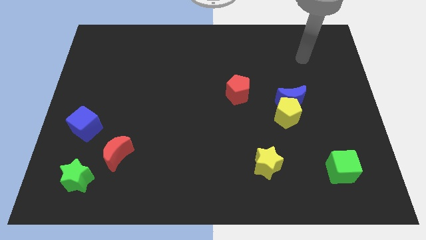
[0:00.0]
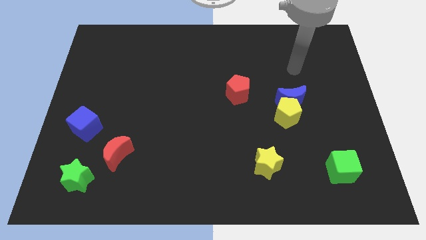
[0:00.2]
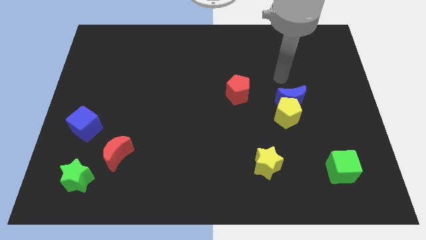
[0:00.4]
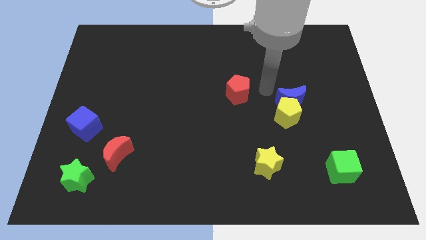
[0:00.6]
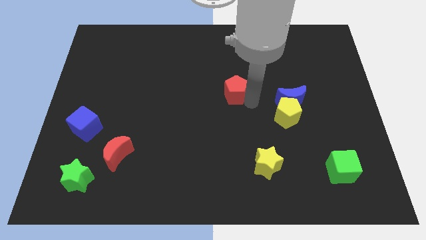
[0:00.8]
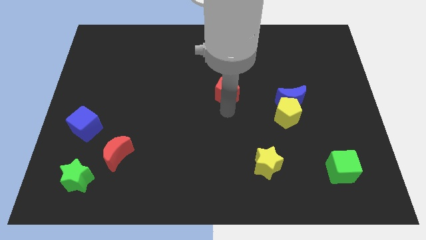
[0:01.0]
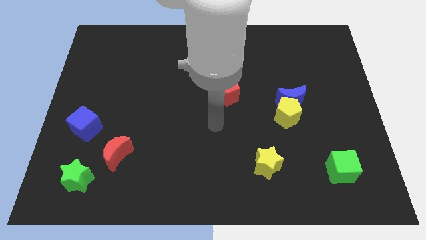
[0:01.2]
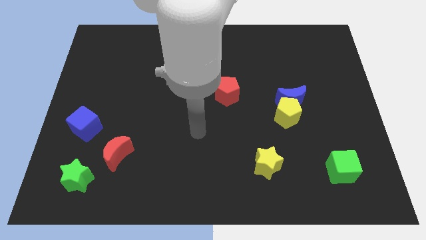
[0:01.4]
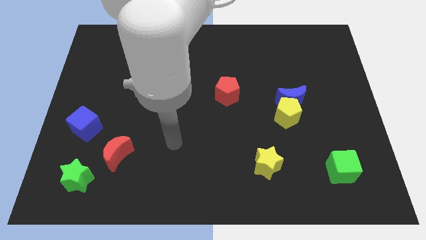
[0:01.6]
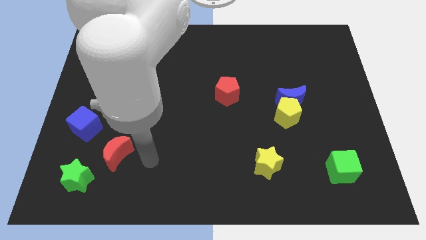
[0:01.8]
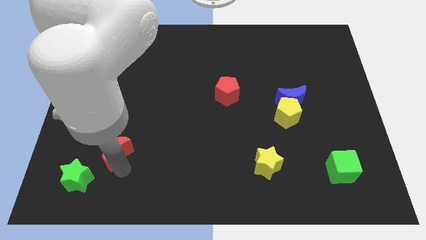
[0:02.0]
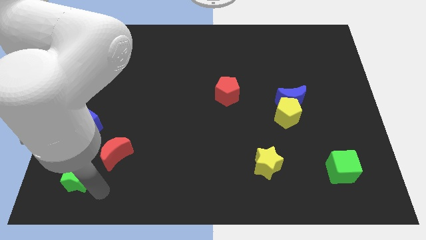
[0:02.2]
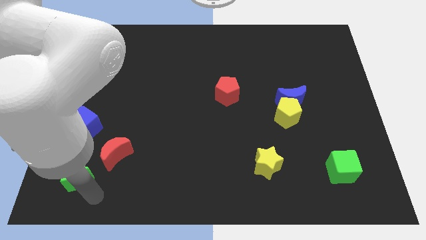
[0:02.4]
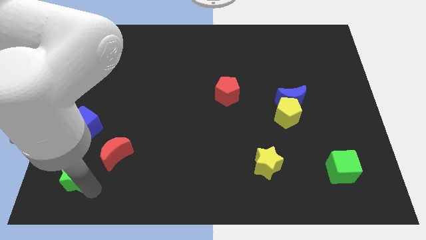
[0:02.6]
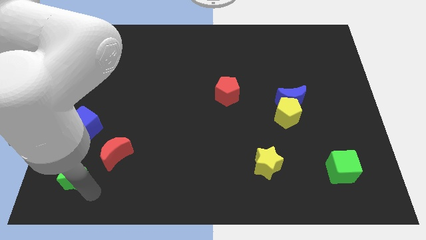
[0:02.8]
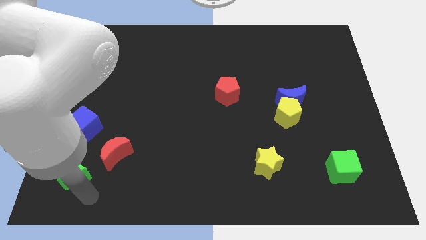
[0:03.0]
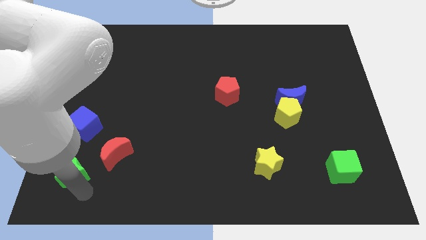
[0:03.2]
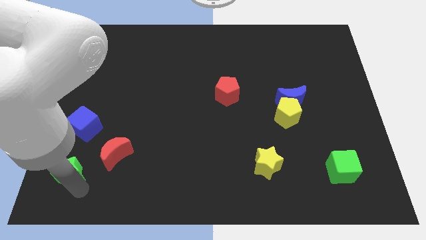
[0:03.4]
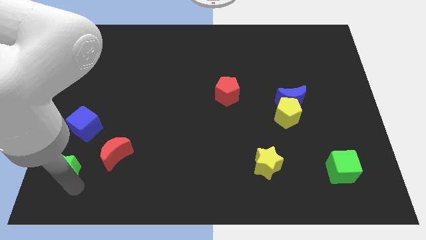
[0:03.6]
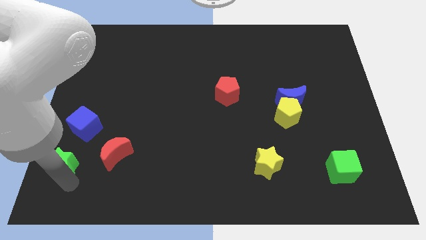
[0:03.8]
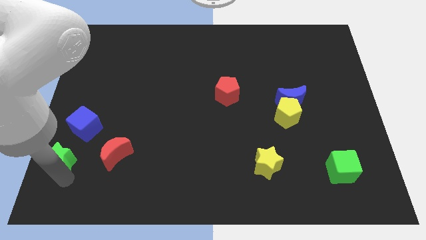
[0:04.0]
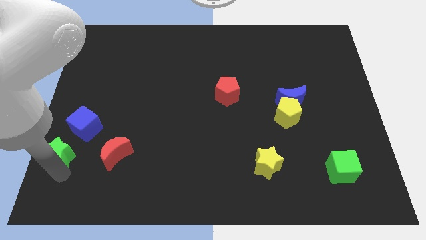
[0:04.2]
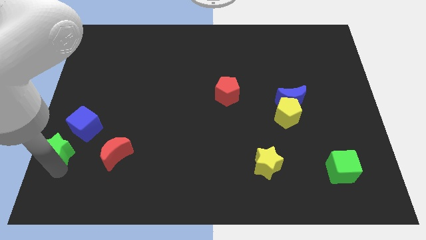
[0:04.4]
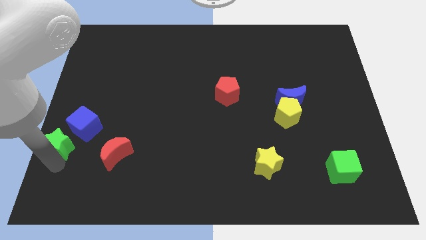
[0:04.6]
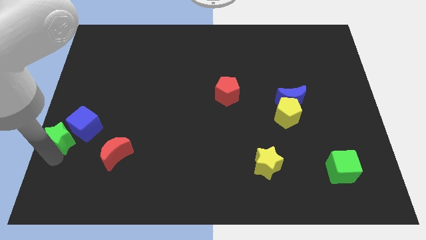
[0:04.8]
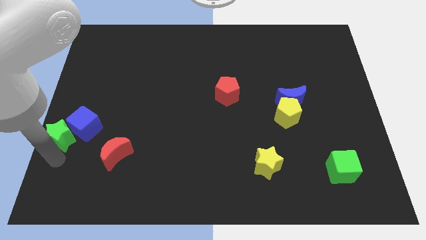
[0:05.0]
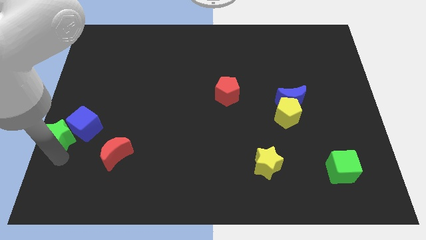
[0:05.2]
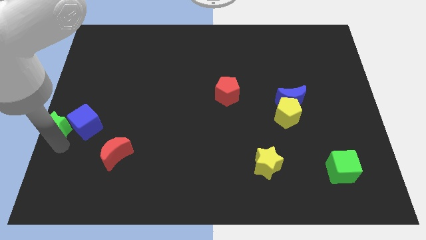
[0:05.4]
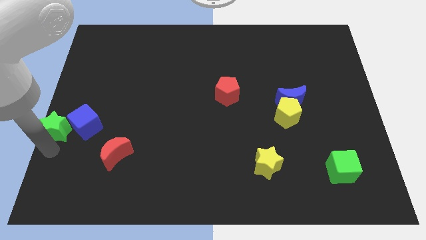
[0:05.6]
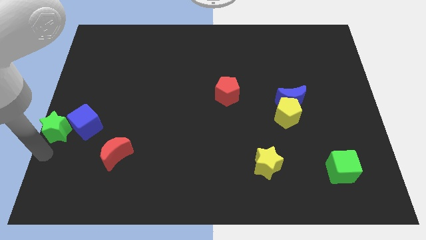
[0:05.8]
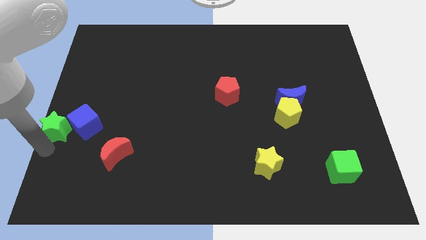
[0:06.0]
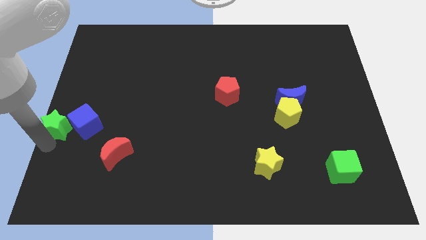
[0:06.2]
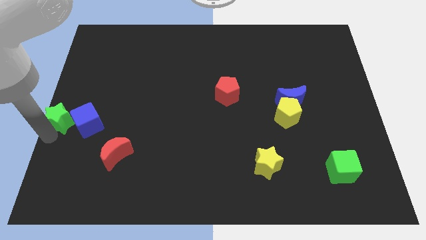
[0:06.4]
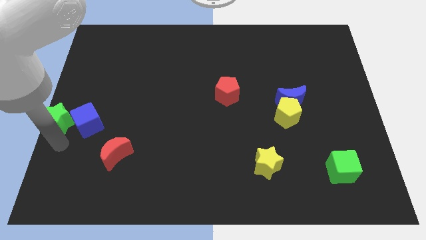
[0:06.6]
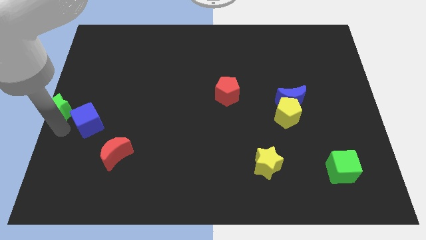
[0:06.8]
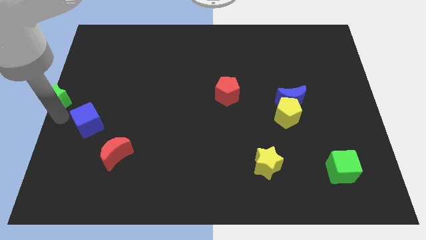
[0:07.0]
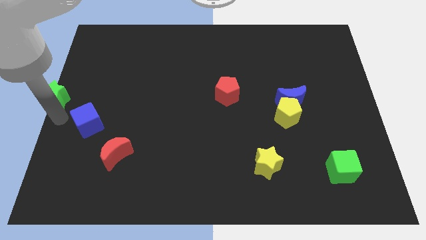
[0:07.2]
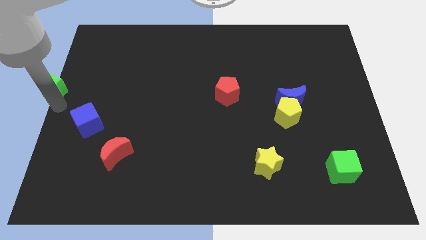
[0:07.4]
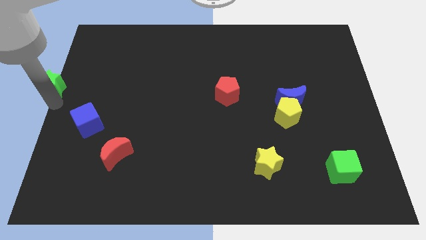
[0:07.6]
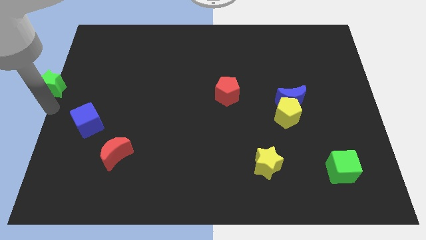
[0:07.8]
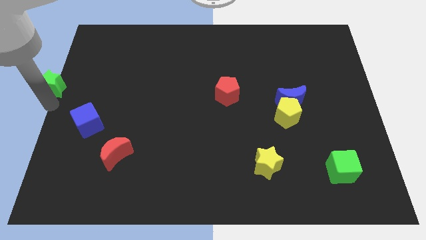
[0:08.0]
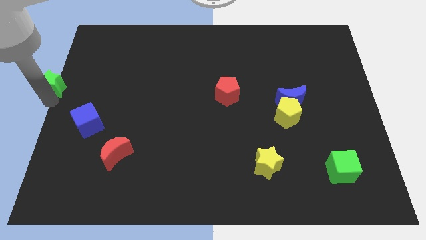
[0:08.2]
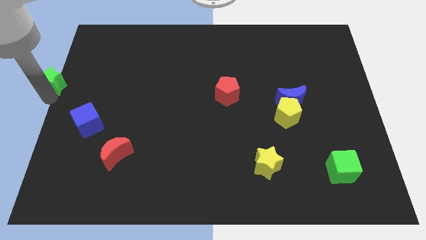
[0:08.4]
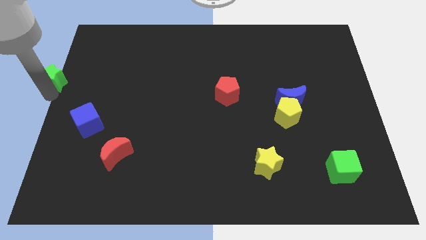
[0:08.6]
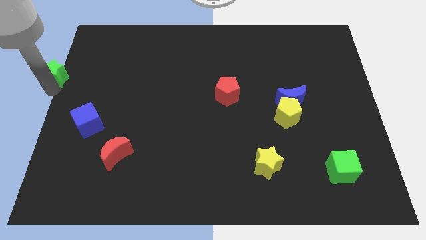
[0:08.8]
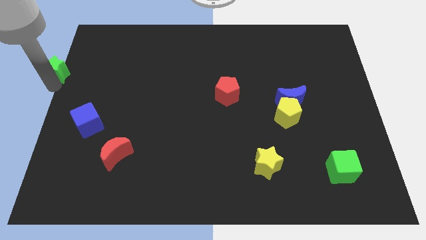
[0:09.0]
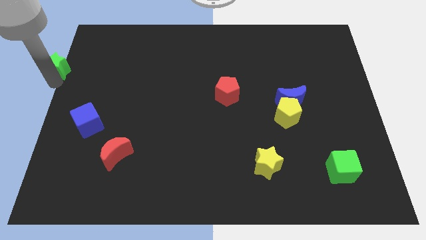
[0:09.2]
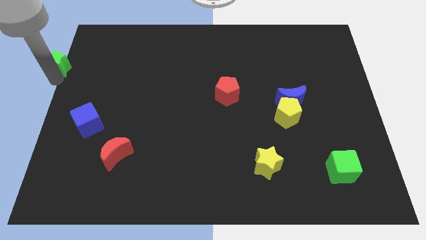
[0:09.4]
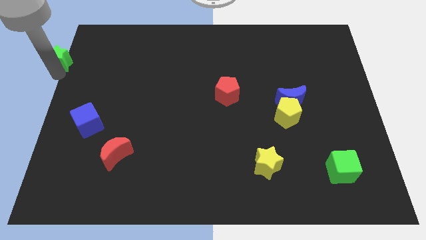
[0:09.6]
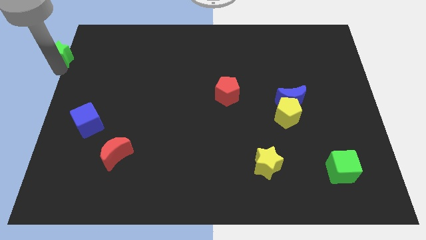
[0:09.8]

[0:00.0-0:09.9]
slide the green star to the top left

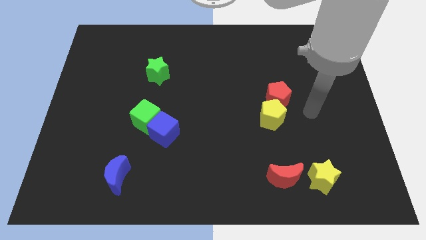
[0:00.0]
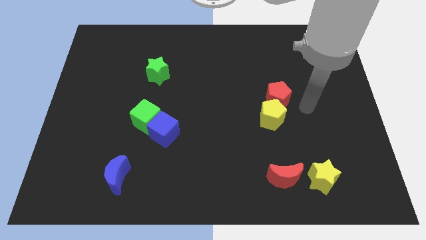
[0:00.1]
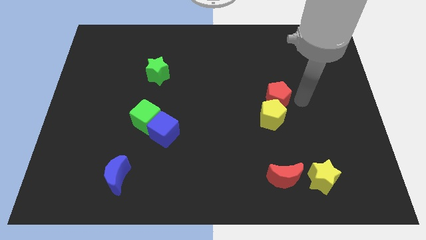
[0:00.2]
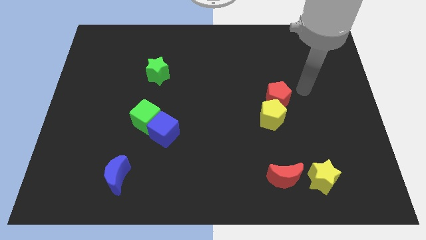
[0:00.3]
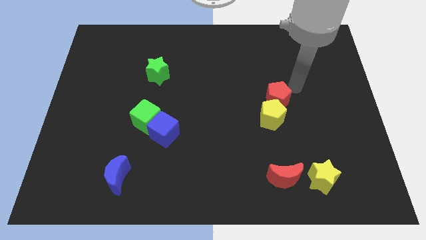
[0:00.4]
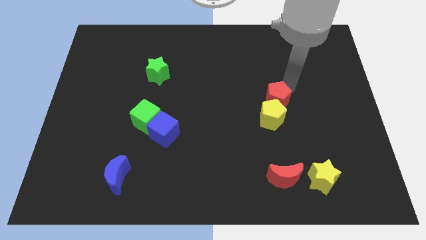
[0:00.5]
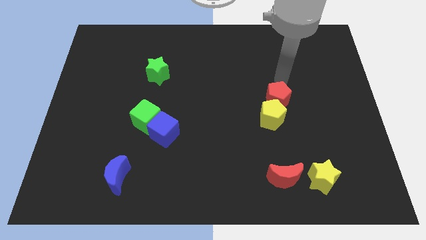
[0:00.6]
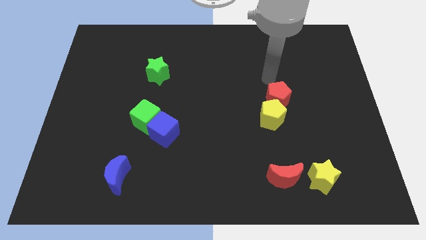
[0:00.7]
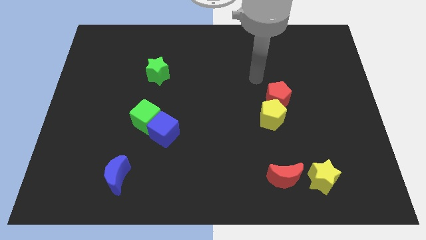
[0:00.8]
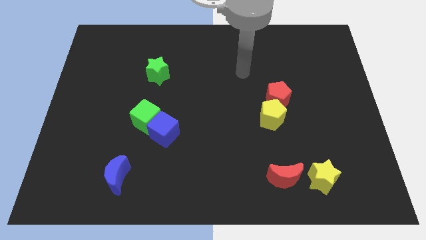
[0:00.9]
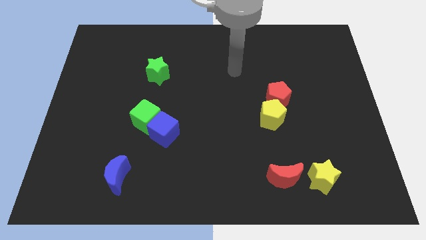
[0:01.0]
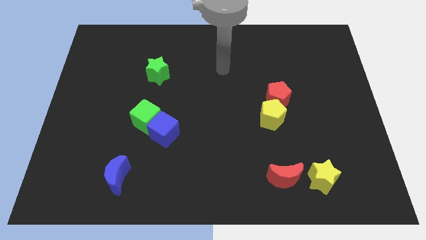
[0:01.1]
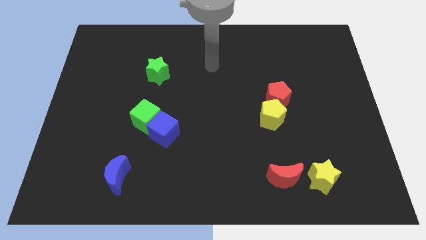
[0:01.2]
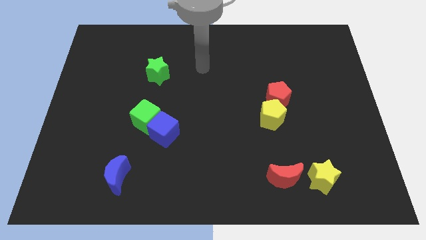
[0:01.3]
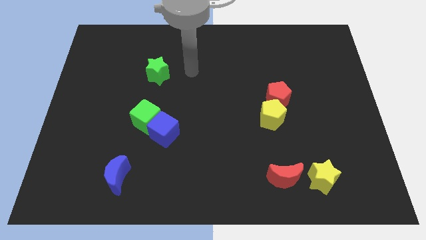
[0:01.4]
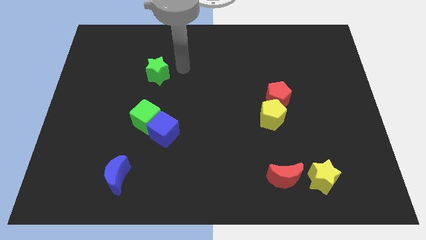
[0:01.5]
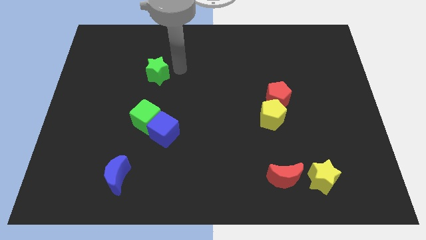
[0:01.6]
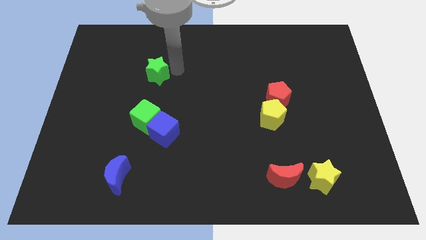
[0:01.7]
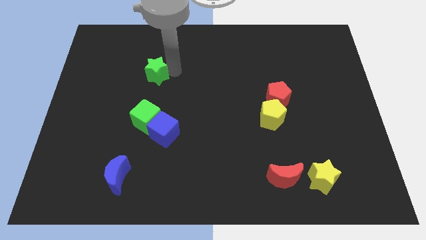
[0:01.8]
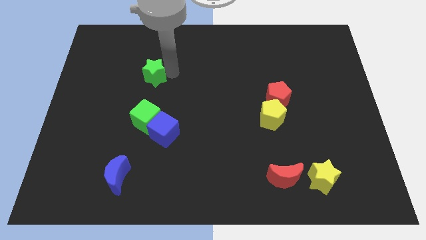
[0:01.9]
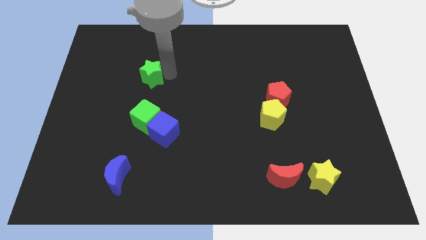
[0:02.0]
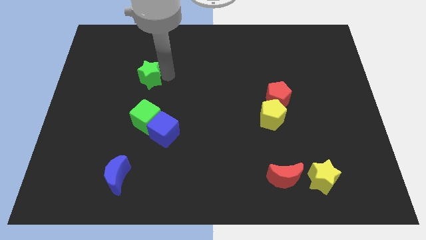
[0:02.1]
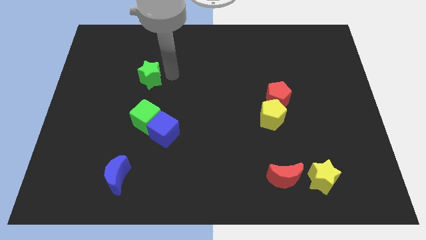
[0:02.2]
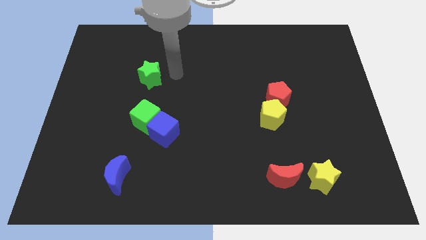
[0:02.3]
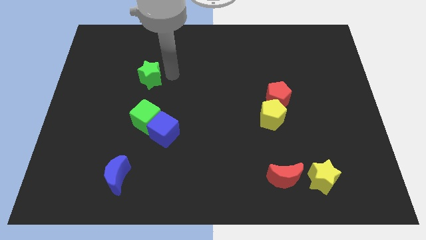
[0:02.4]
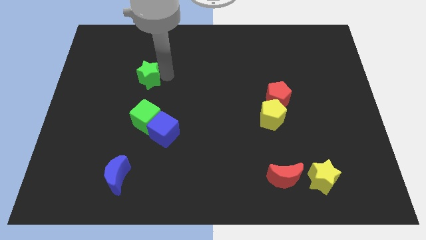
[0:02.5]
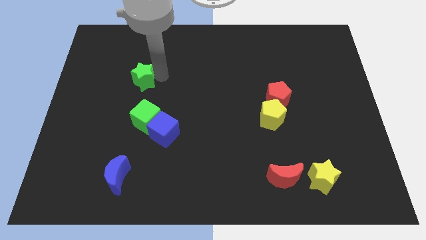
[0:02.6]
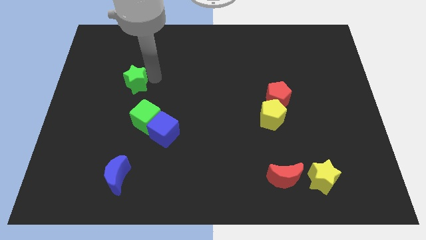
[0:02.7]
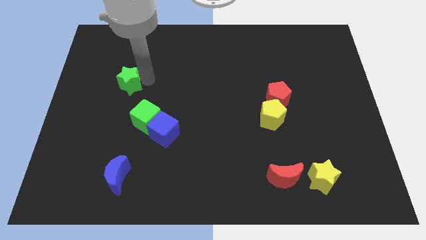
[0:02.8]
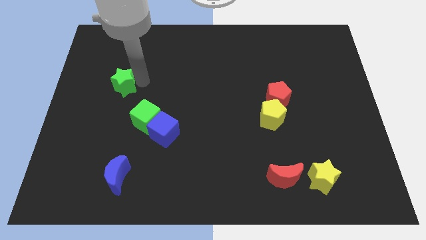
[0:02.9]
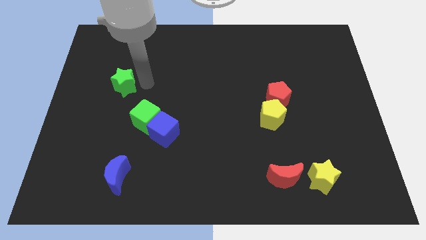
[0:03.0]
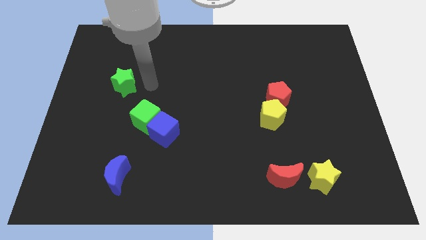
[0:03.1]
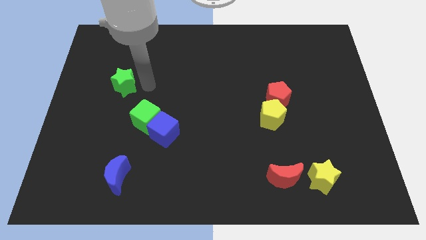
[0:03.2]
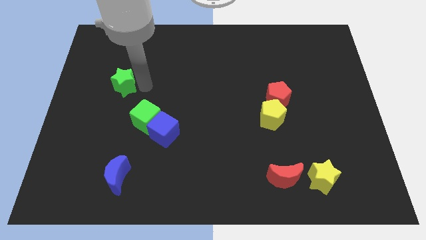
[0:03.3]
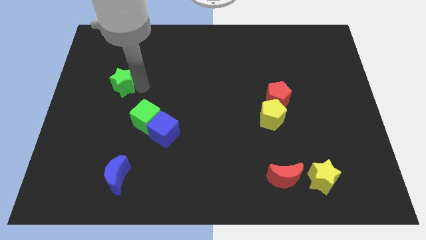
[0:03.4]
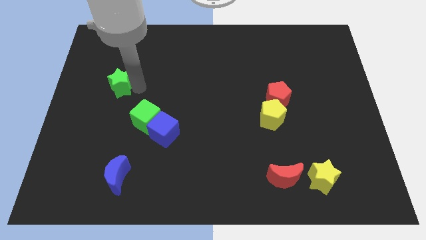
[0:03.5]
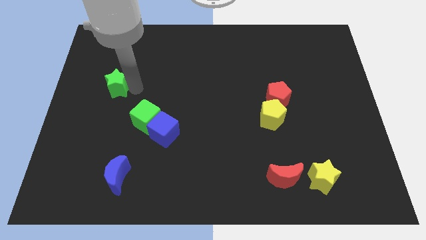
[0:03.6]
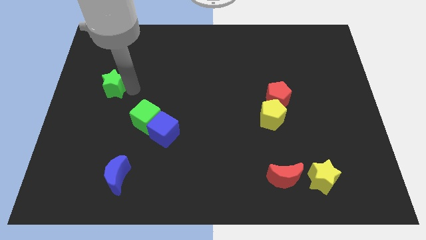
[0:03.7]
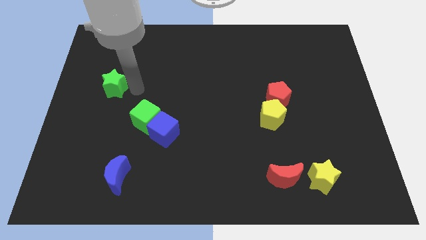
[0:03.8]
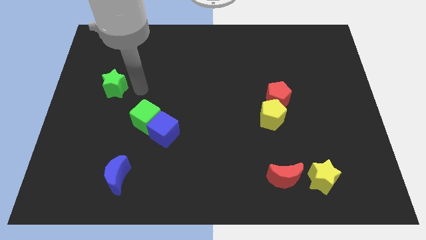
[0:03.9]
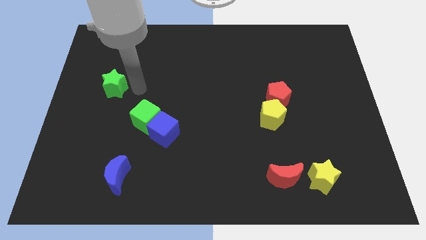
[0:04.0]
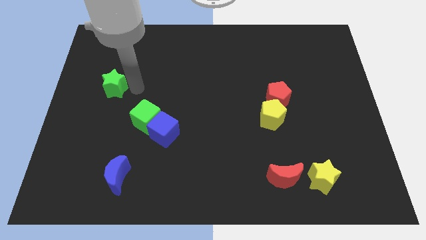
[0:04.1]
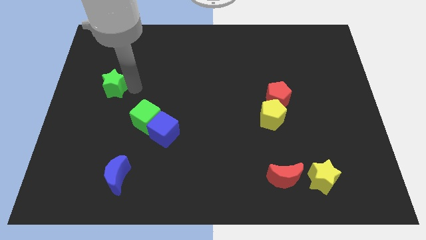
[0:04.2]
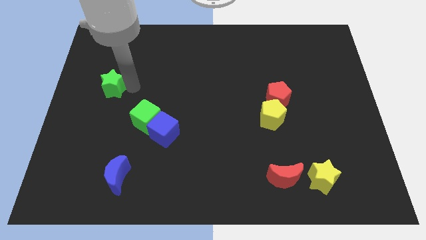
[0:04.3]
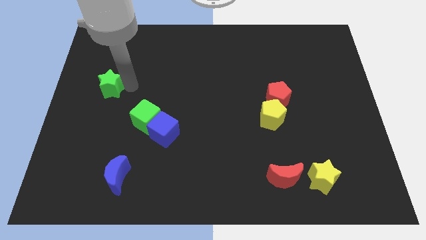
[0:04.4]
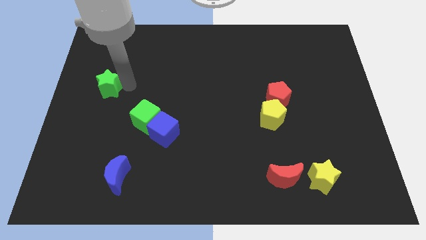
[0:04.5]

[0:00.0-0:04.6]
push the green star to the left side of the board
